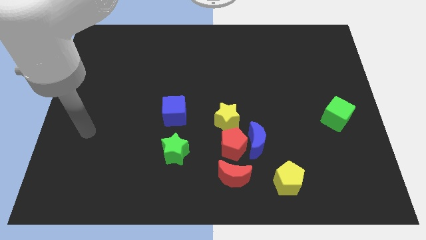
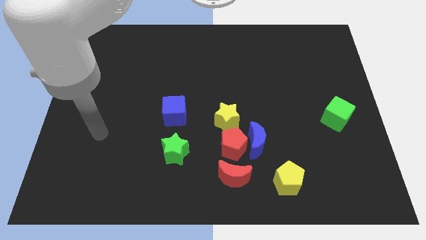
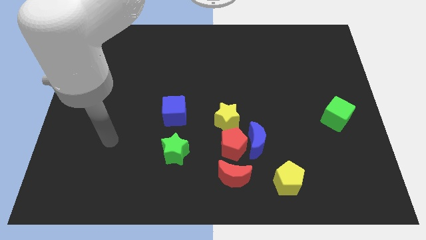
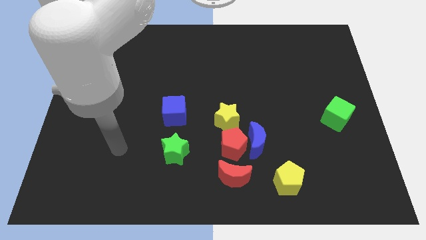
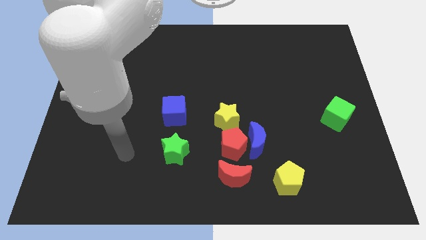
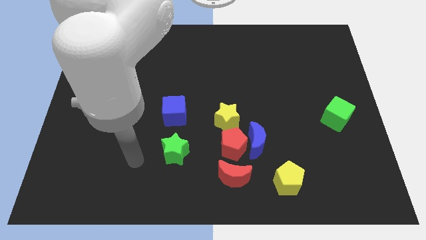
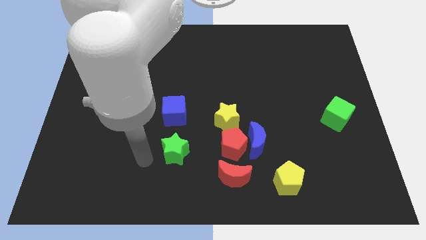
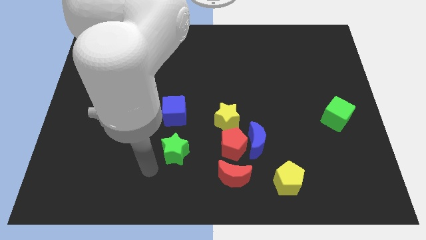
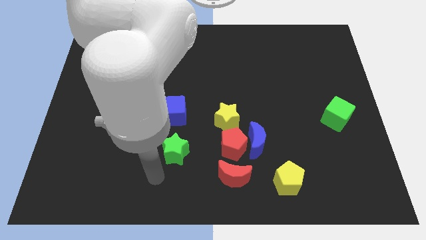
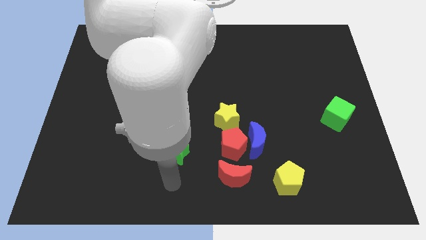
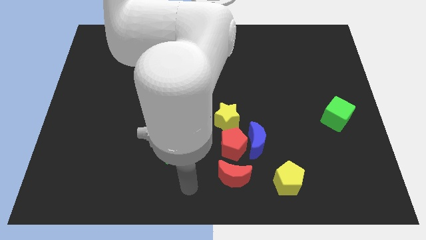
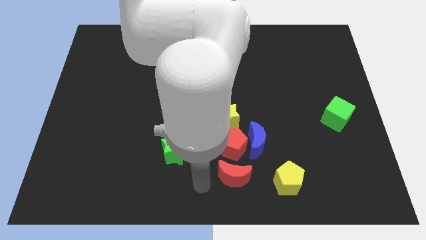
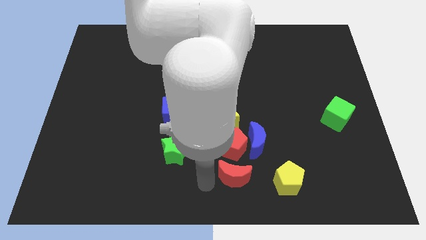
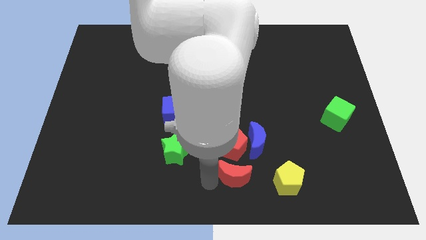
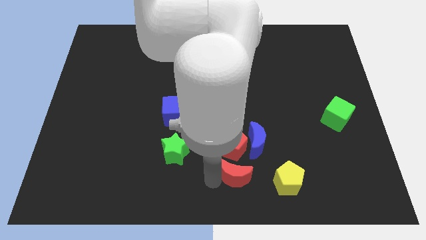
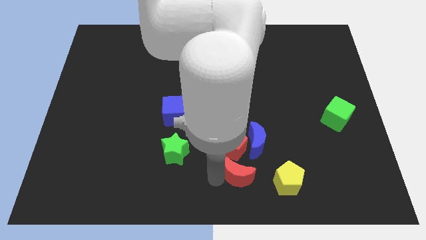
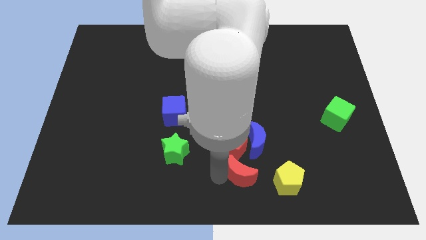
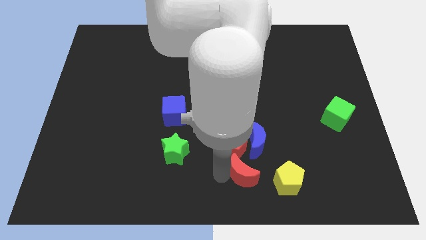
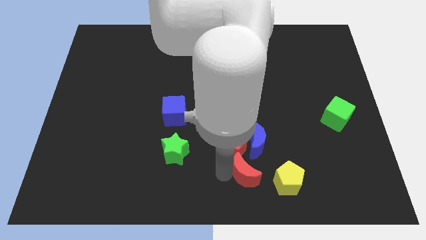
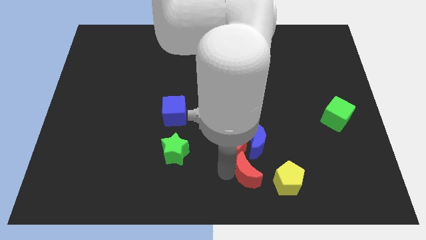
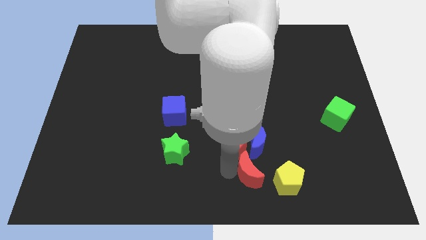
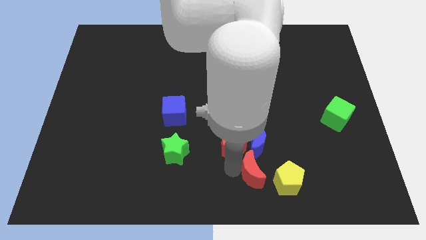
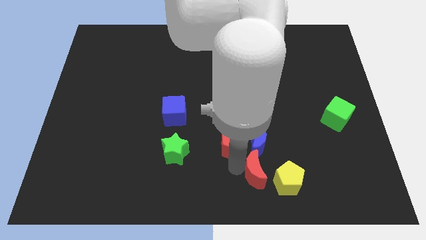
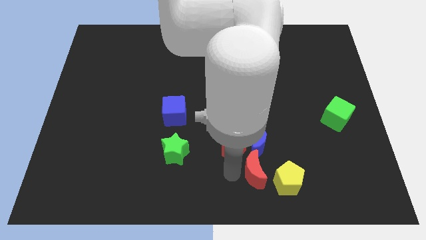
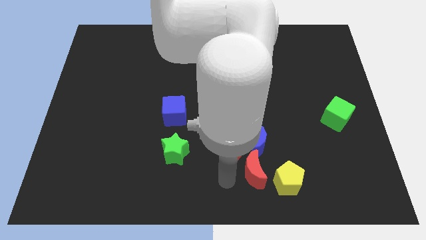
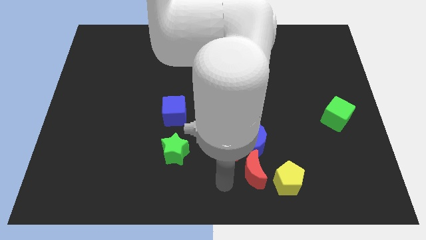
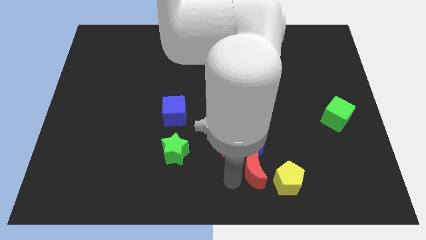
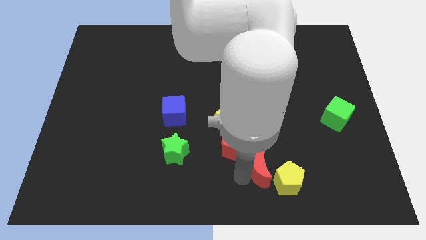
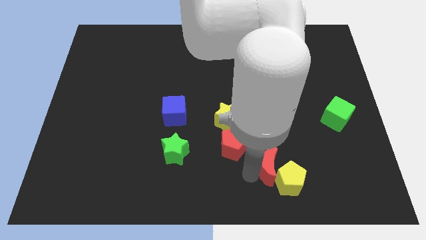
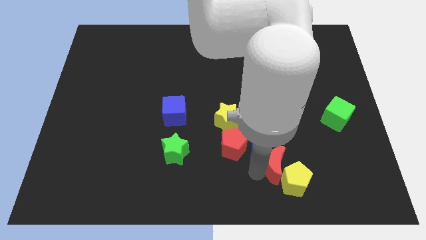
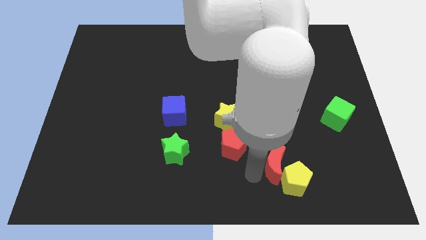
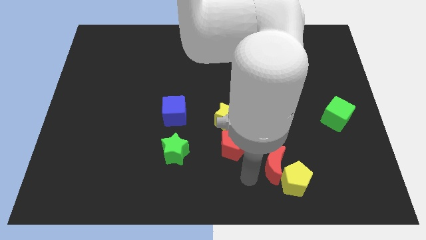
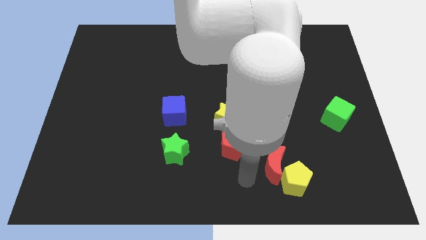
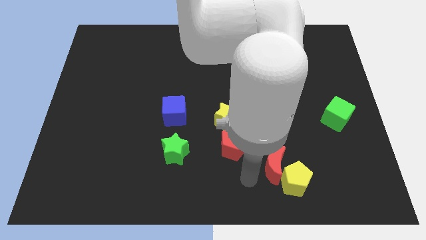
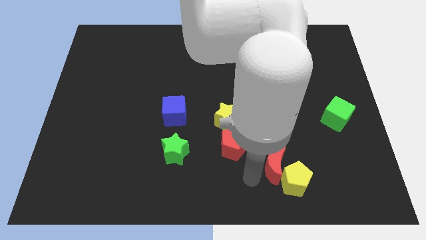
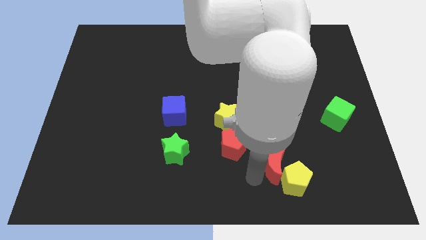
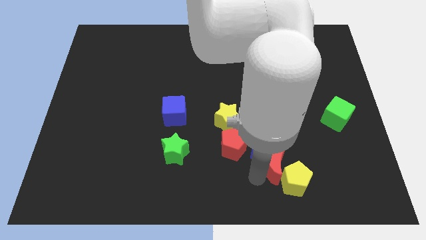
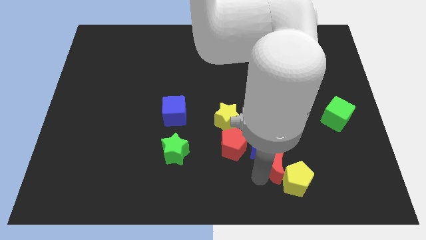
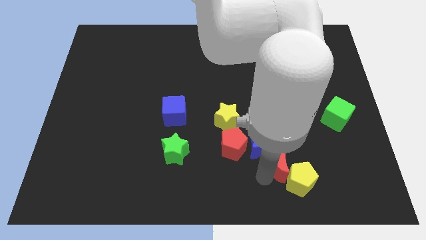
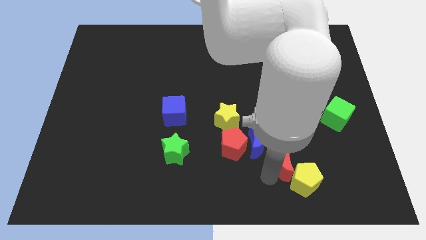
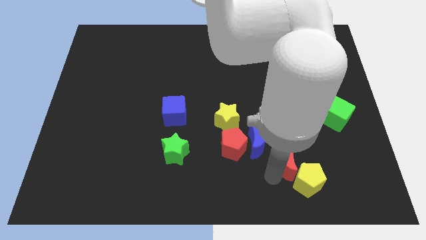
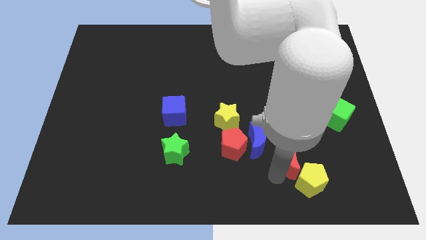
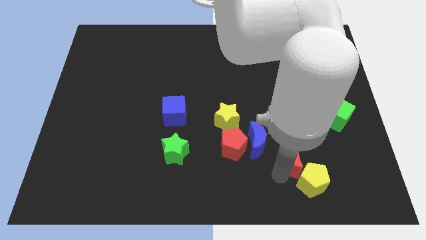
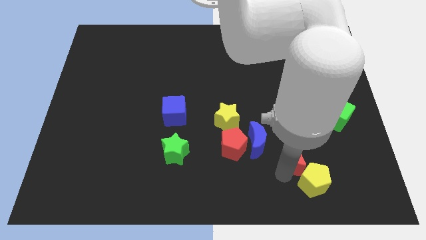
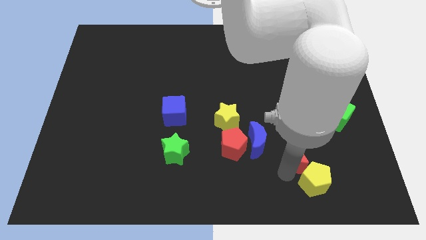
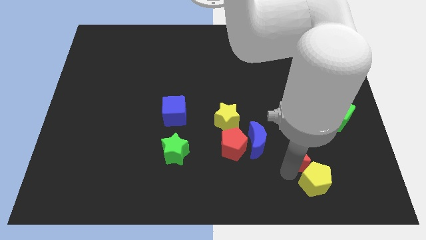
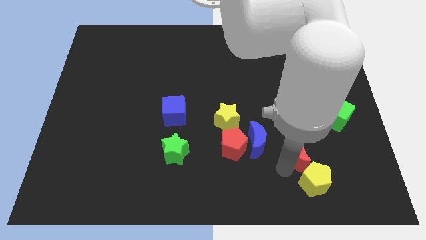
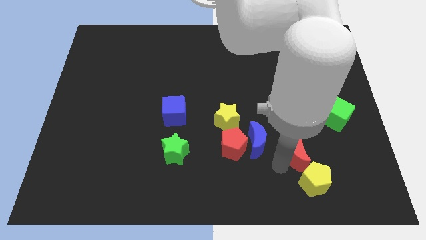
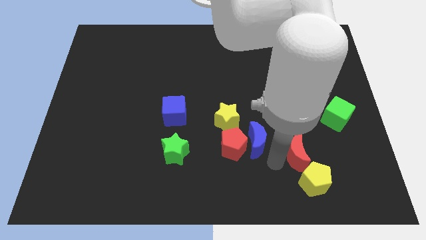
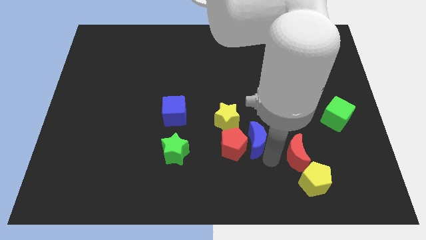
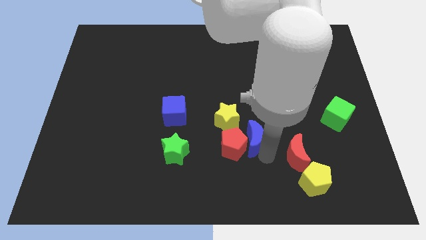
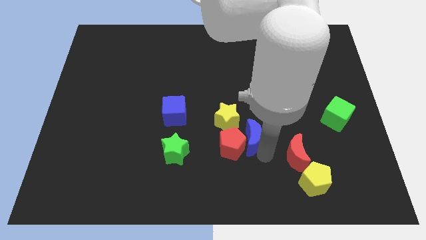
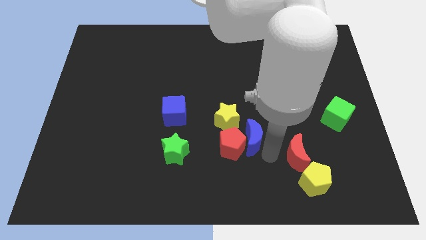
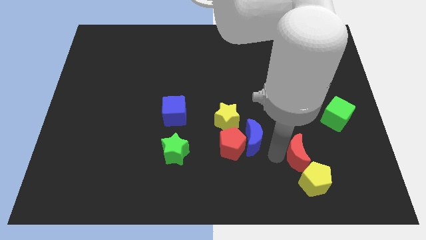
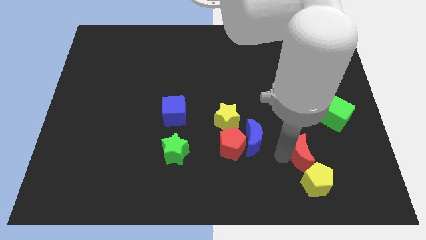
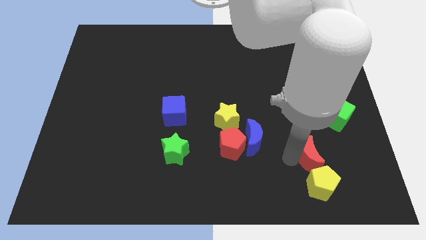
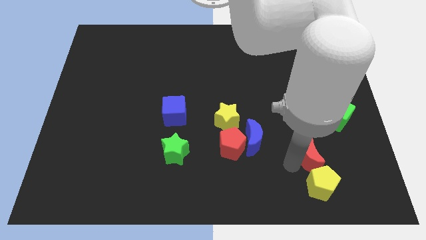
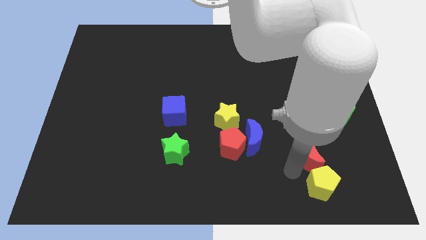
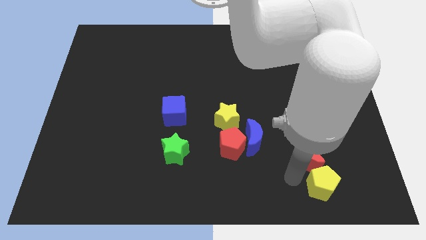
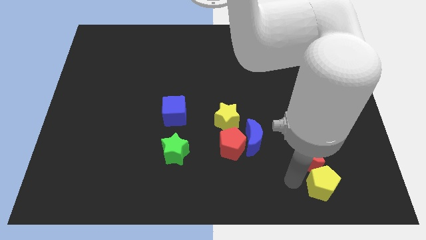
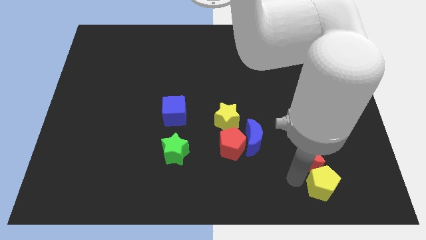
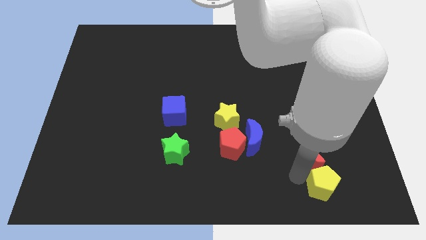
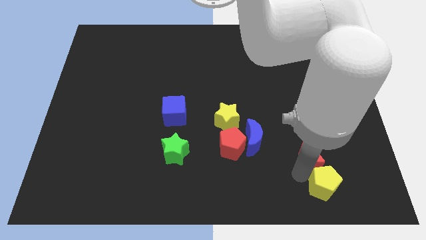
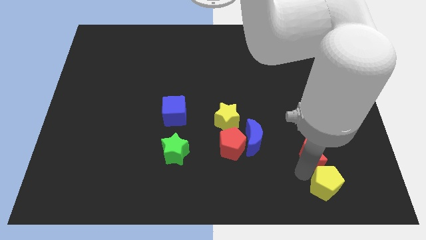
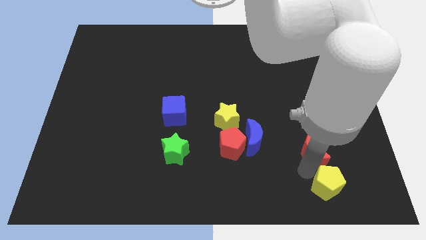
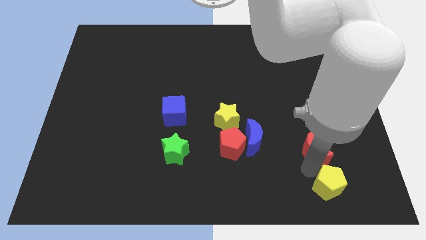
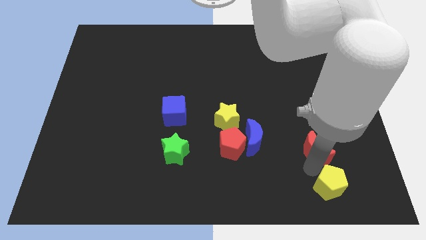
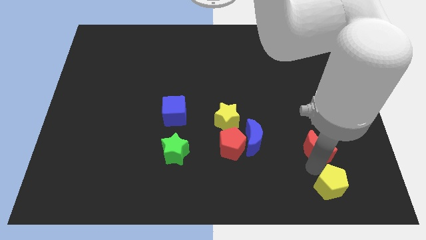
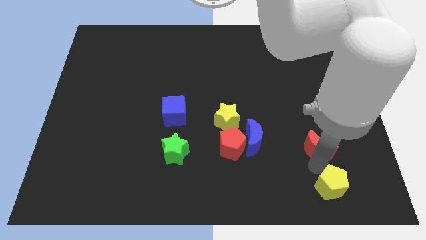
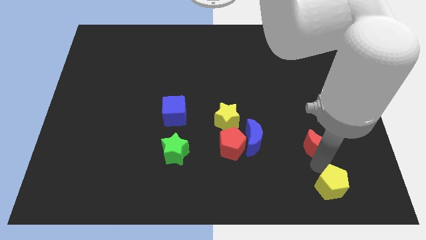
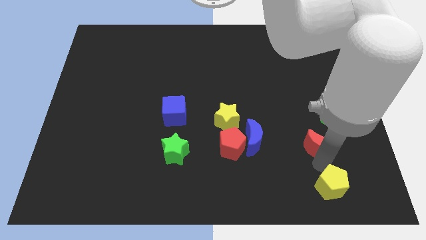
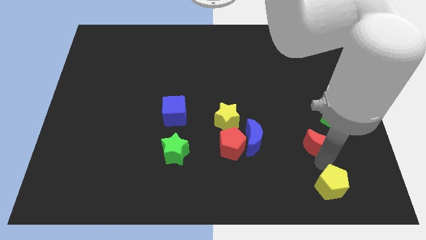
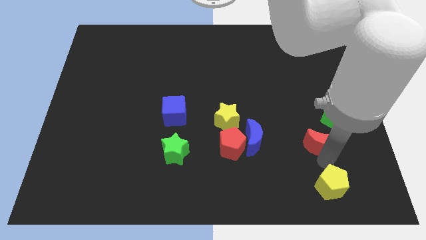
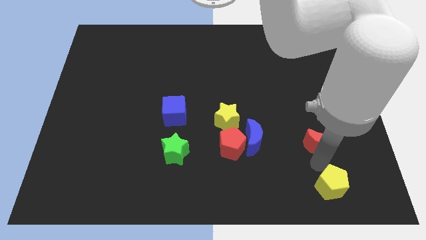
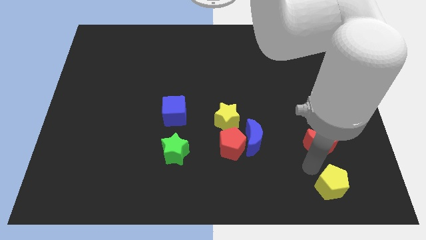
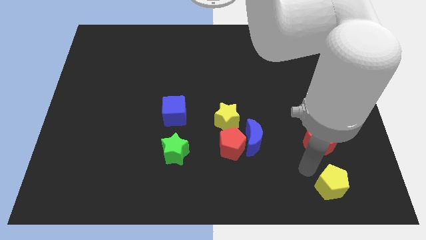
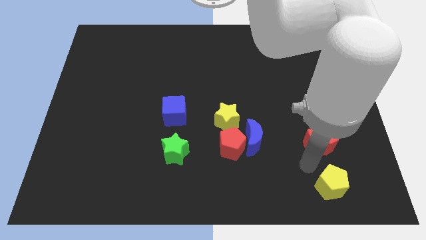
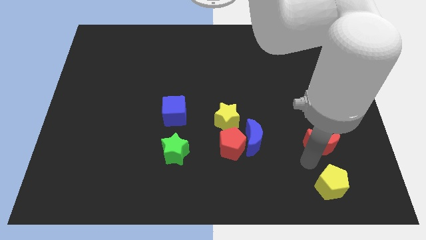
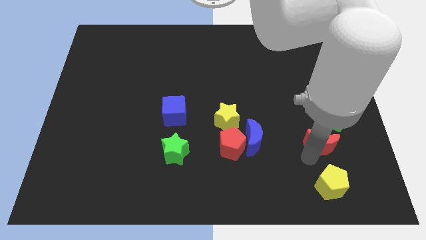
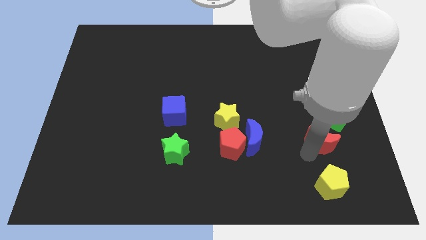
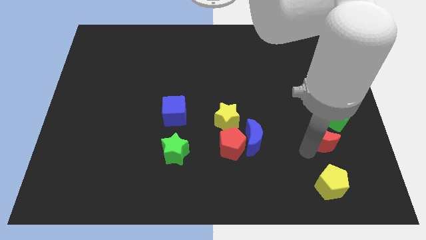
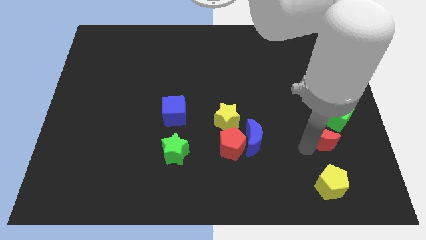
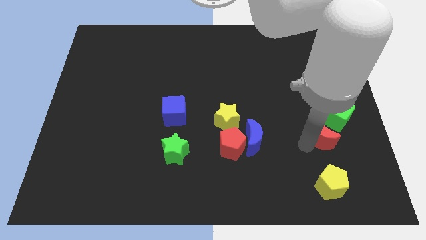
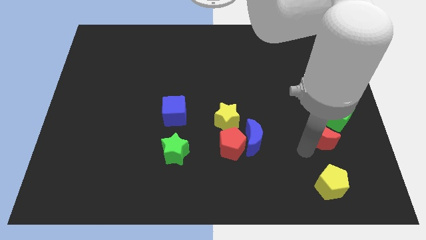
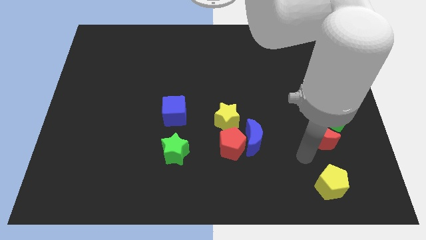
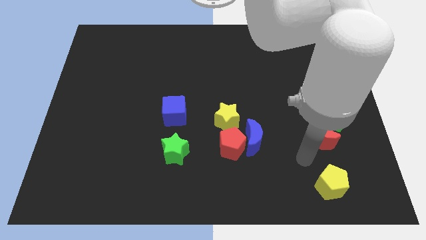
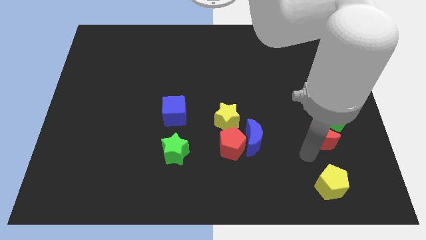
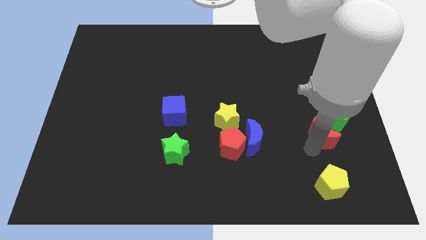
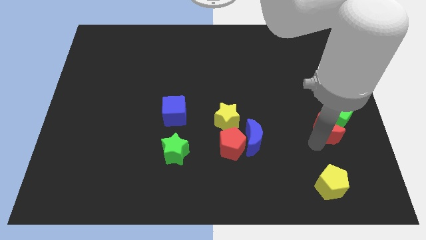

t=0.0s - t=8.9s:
slide the red moon to the green cube
